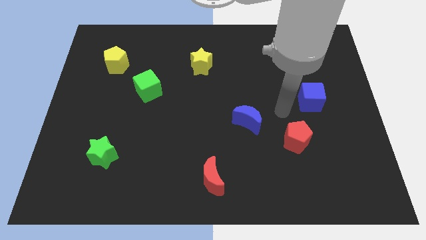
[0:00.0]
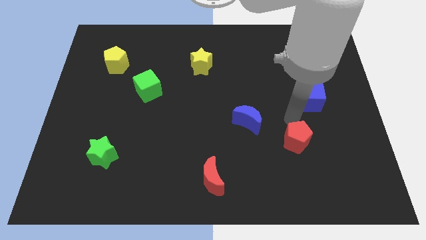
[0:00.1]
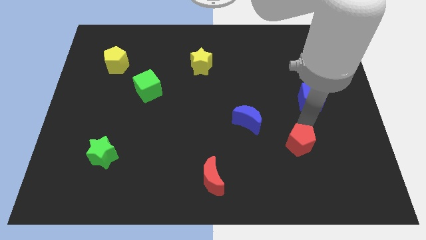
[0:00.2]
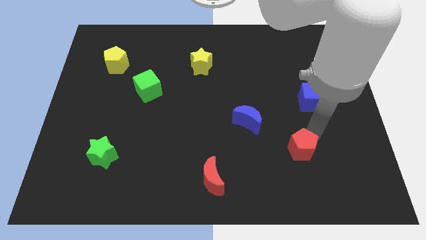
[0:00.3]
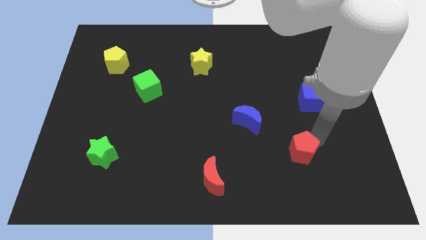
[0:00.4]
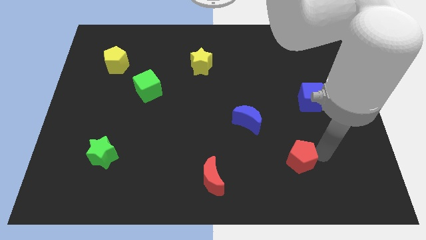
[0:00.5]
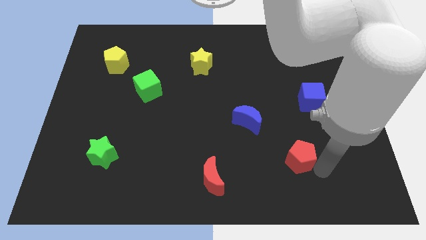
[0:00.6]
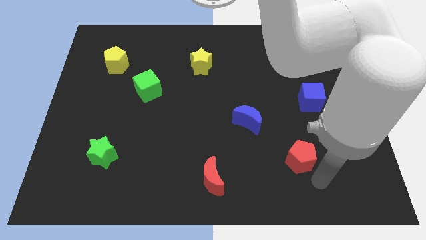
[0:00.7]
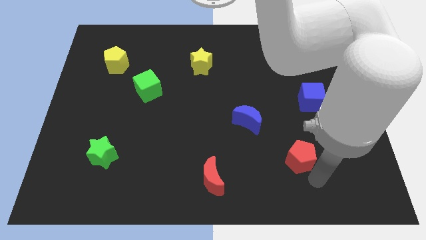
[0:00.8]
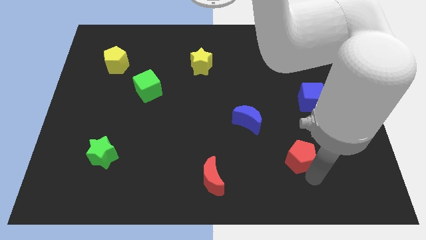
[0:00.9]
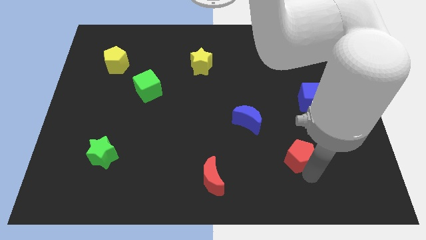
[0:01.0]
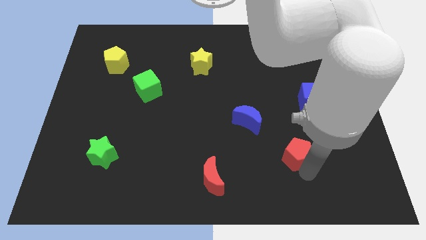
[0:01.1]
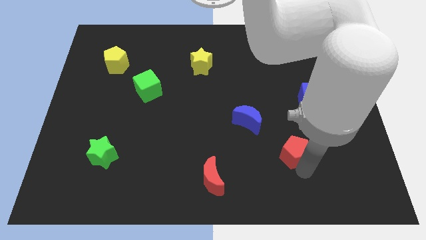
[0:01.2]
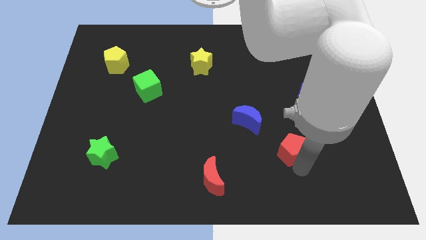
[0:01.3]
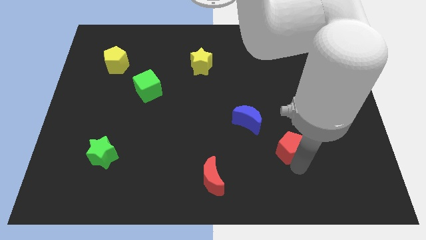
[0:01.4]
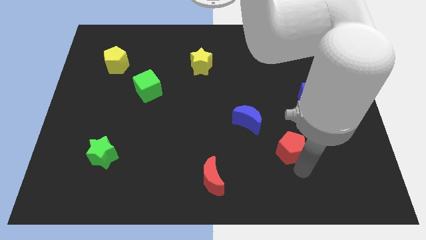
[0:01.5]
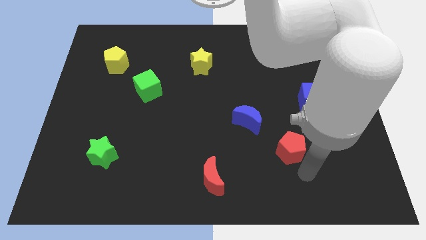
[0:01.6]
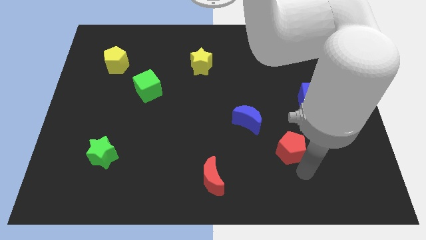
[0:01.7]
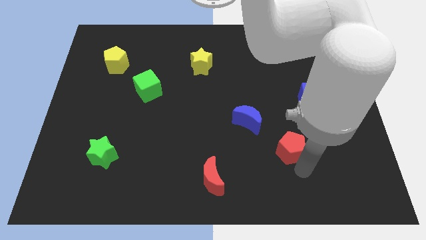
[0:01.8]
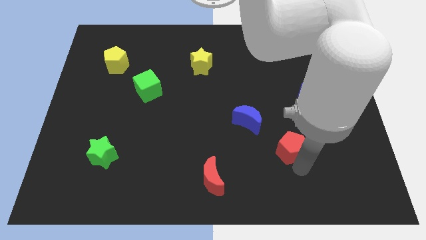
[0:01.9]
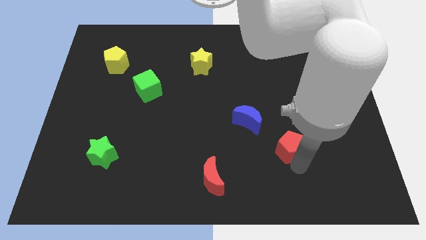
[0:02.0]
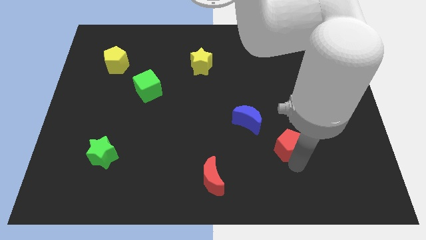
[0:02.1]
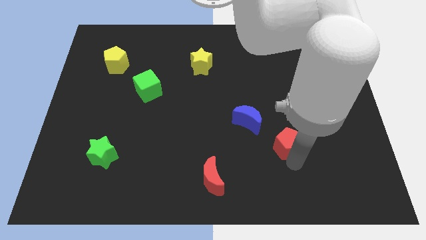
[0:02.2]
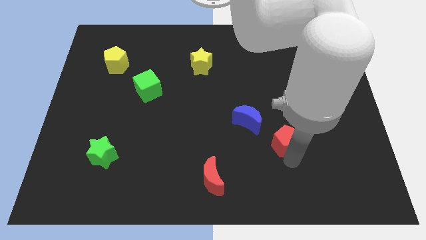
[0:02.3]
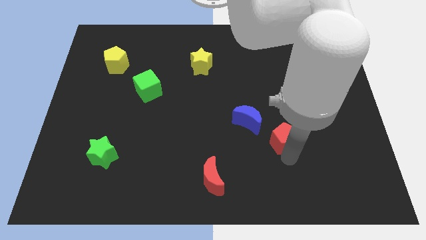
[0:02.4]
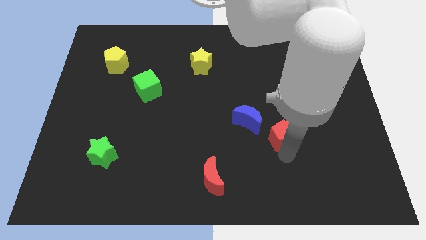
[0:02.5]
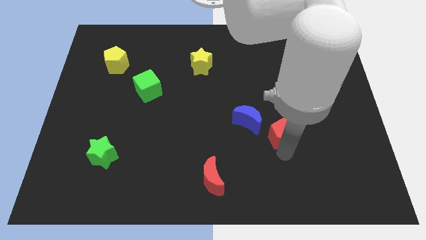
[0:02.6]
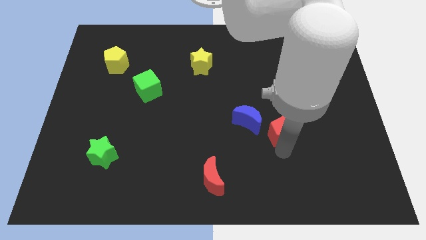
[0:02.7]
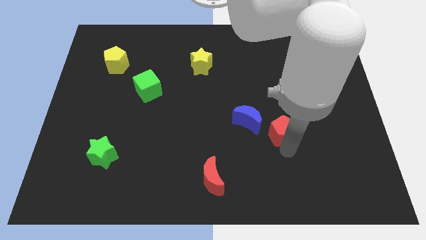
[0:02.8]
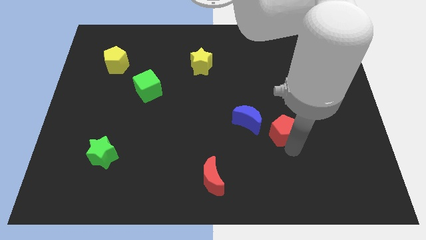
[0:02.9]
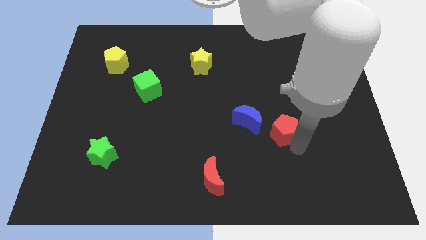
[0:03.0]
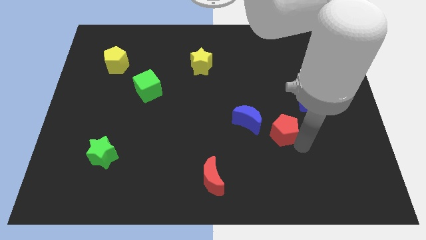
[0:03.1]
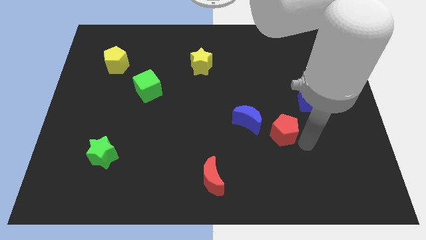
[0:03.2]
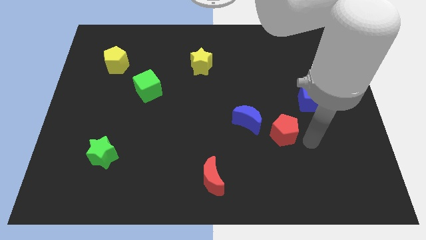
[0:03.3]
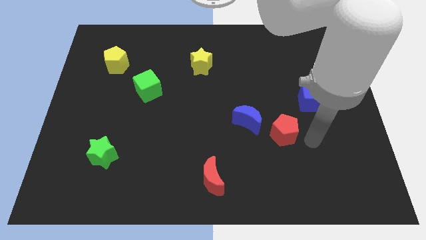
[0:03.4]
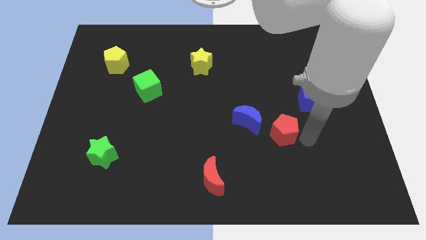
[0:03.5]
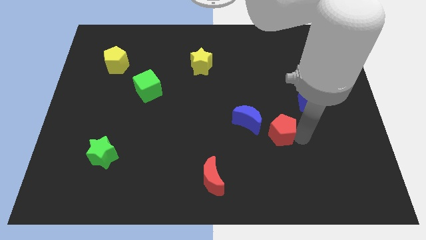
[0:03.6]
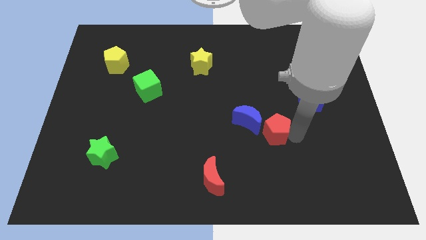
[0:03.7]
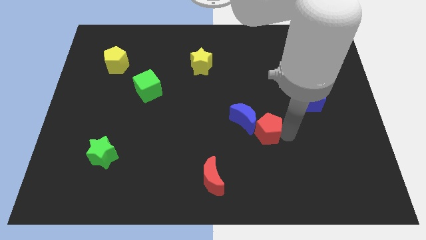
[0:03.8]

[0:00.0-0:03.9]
put the red pentagon next to the blue moon

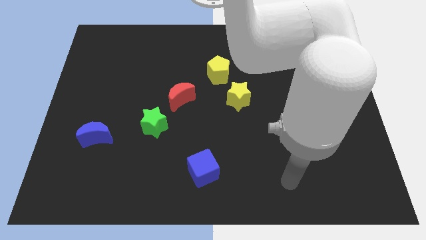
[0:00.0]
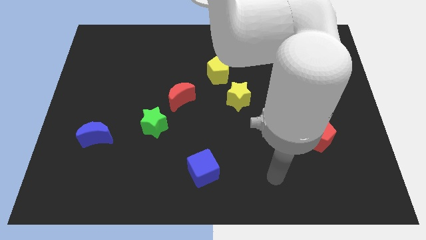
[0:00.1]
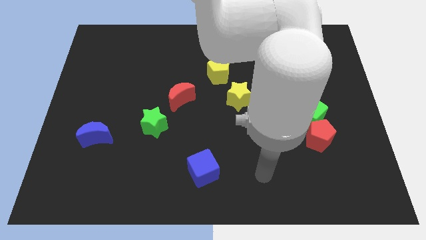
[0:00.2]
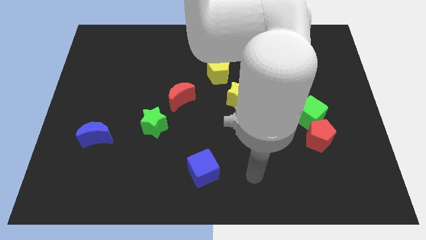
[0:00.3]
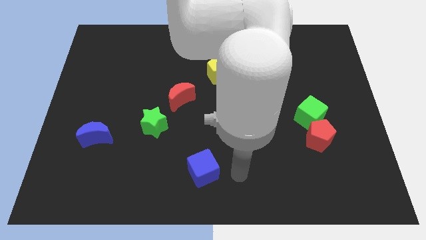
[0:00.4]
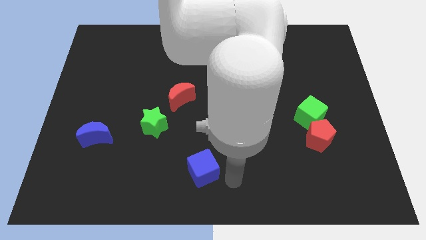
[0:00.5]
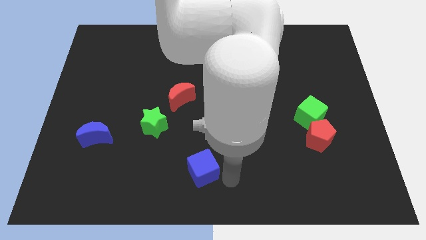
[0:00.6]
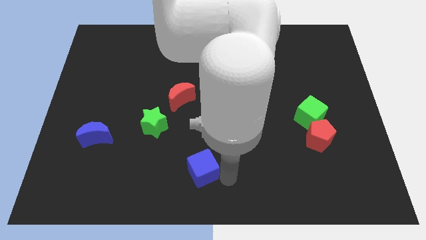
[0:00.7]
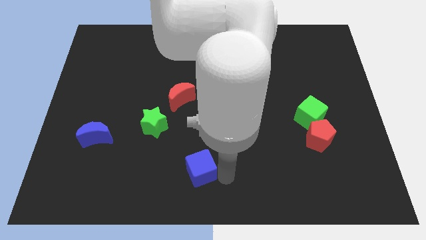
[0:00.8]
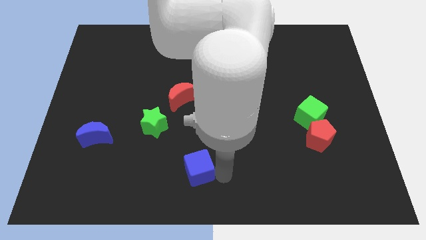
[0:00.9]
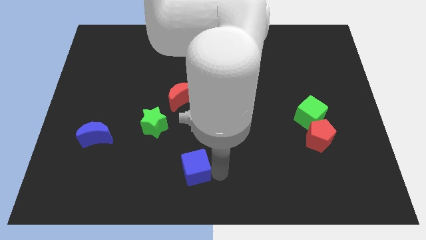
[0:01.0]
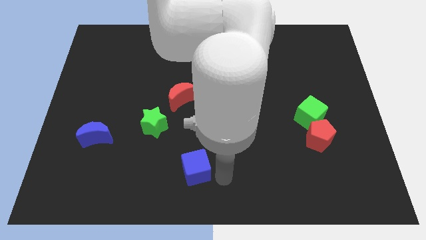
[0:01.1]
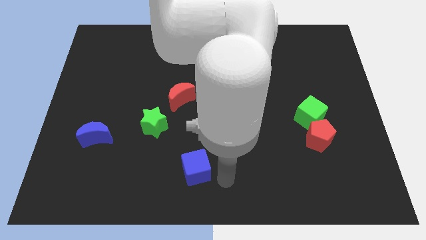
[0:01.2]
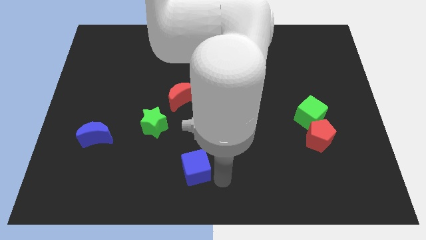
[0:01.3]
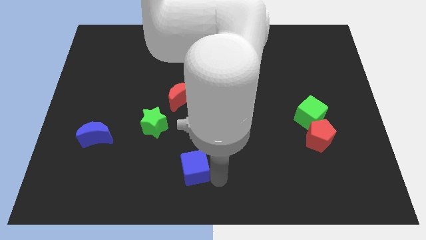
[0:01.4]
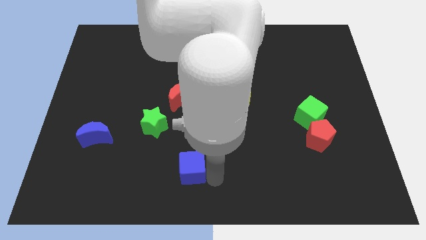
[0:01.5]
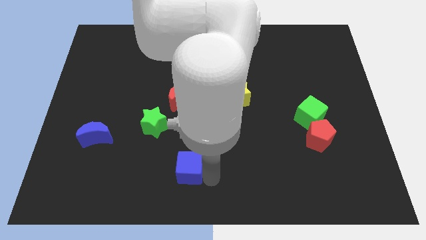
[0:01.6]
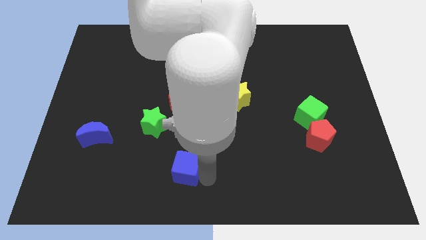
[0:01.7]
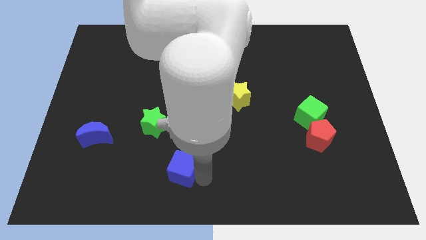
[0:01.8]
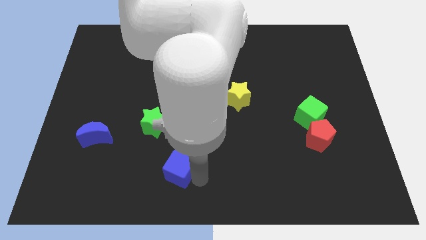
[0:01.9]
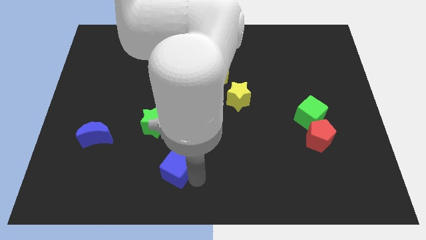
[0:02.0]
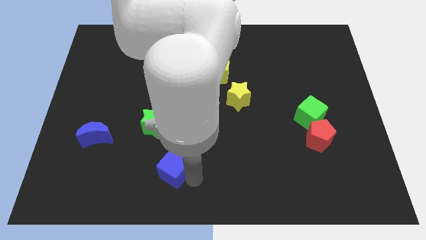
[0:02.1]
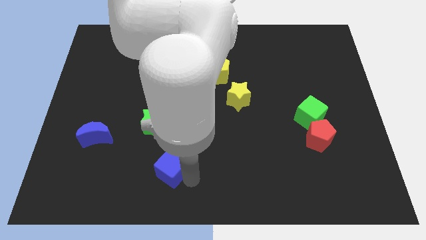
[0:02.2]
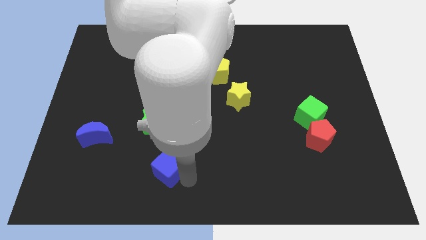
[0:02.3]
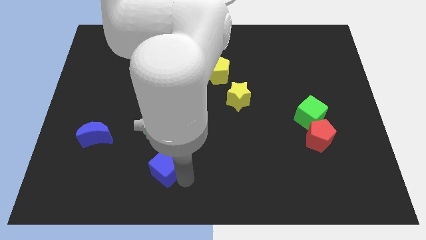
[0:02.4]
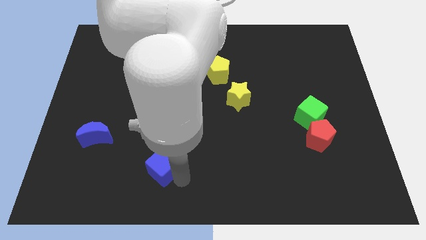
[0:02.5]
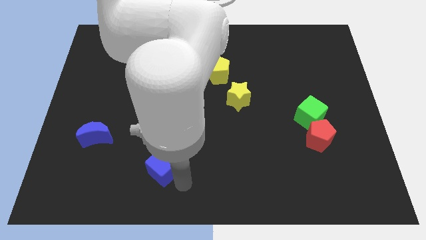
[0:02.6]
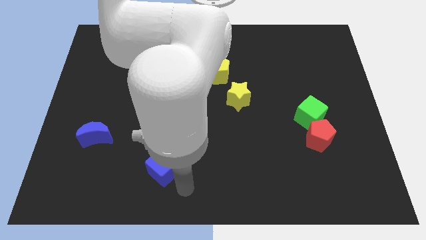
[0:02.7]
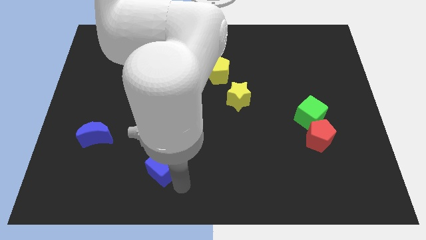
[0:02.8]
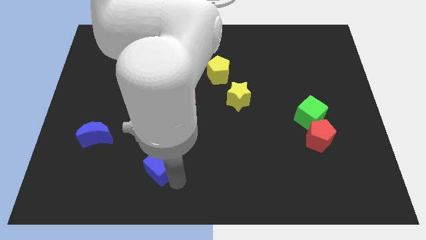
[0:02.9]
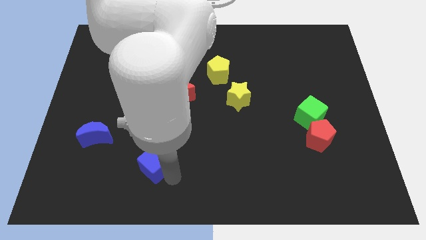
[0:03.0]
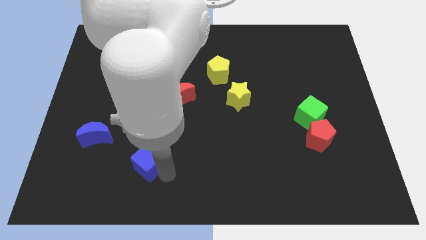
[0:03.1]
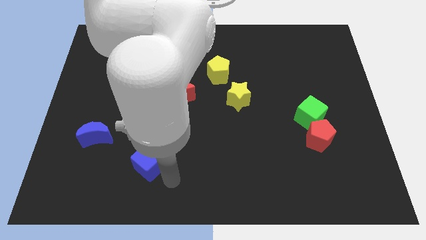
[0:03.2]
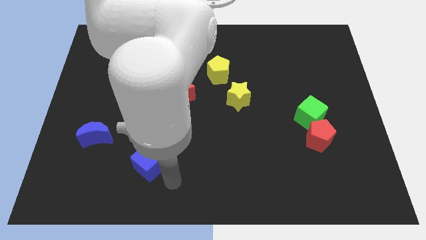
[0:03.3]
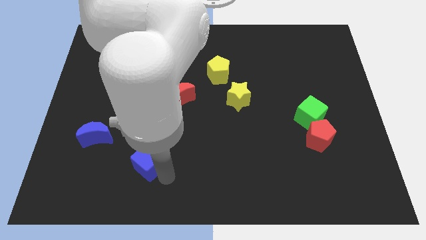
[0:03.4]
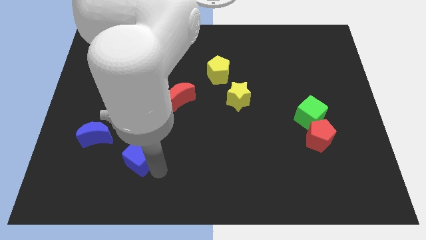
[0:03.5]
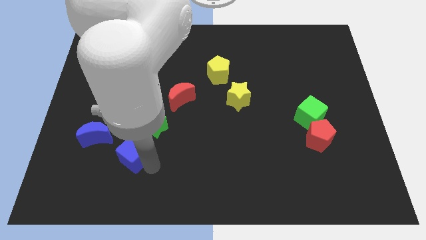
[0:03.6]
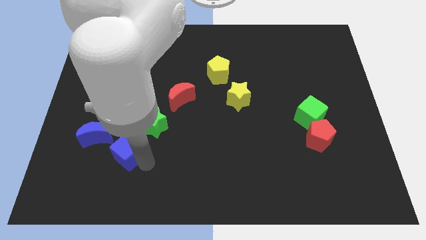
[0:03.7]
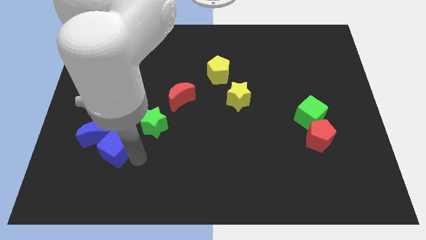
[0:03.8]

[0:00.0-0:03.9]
slide the blue cube close to the blue moon
